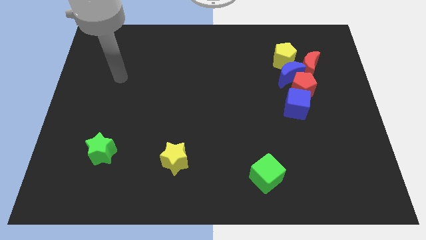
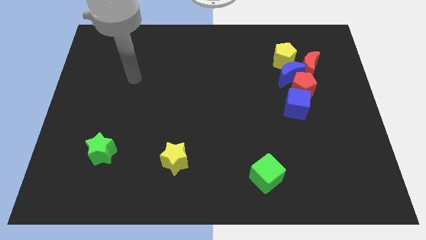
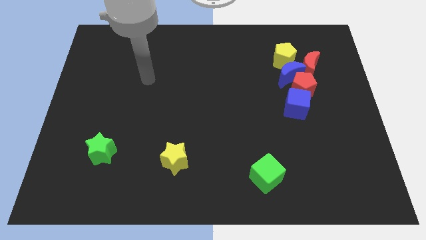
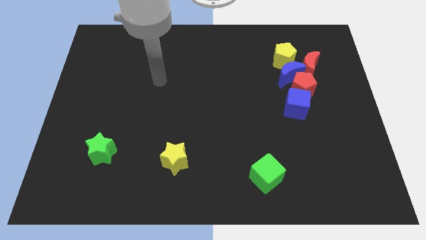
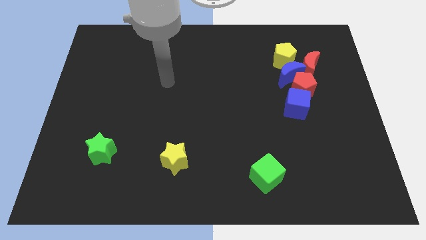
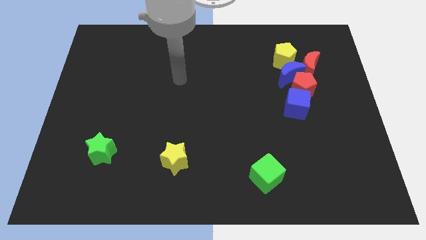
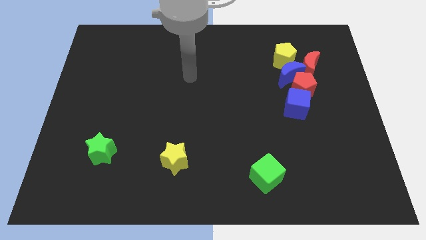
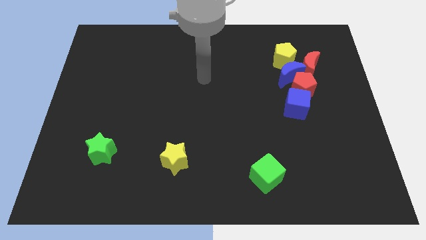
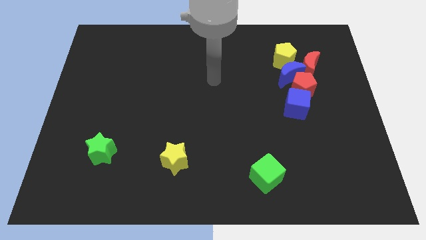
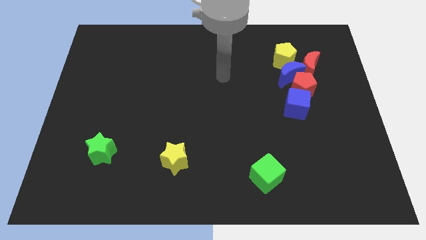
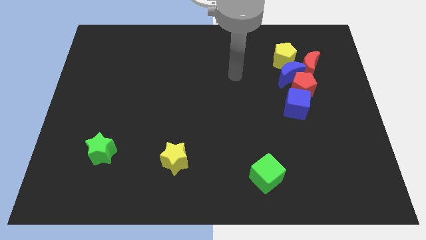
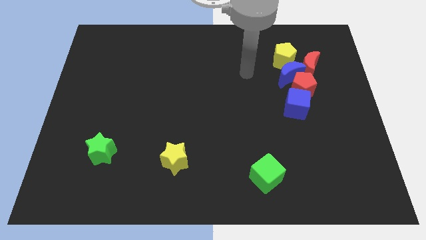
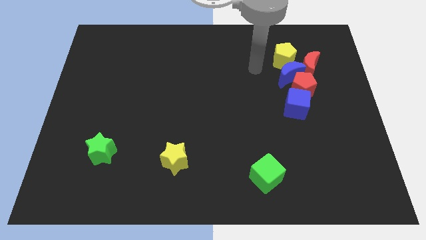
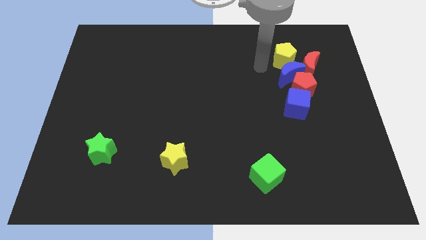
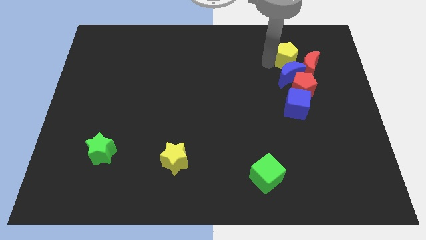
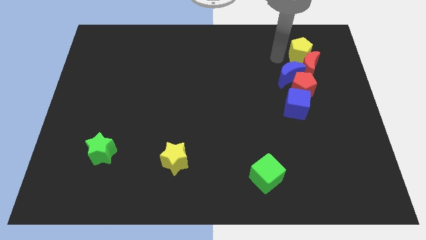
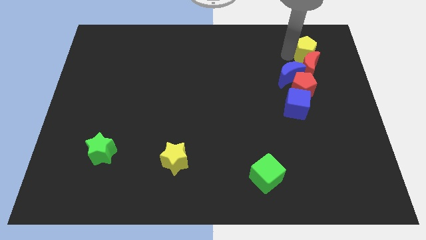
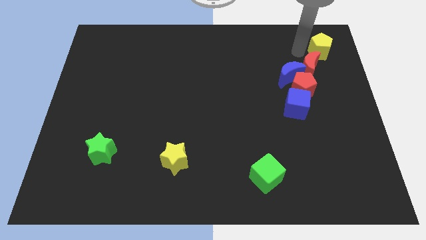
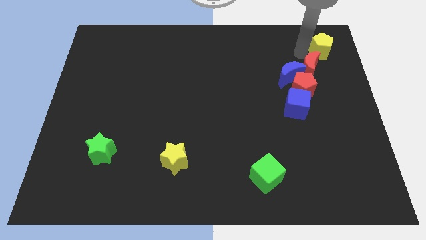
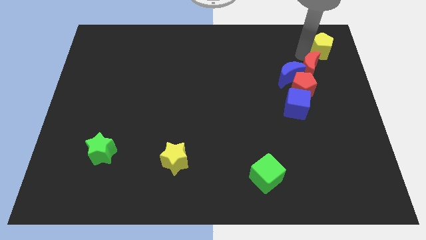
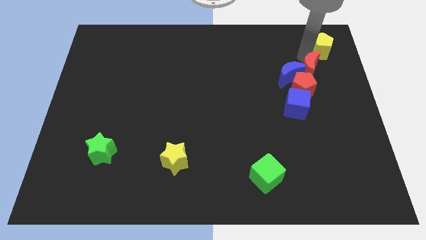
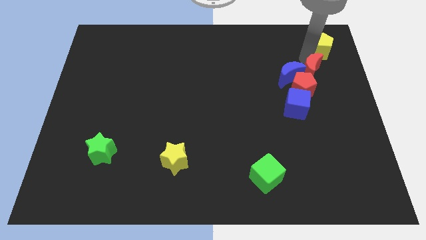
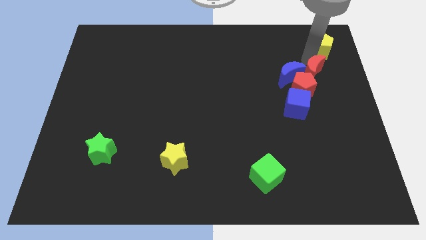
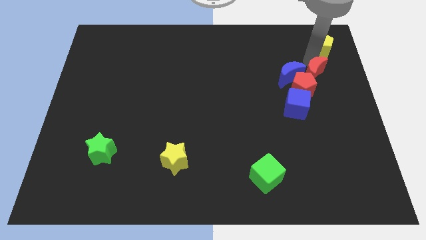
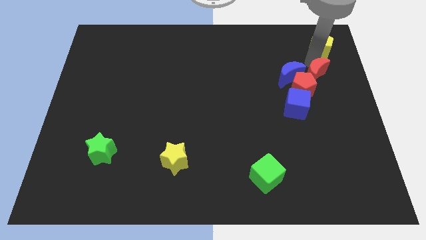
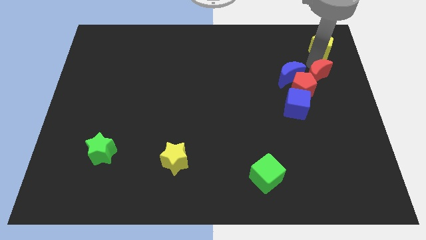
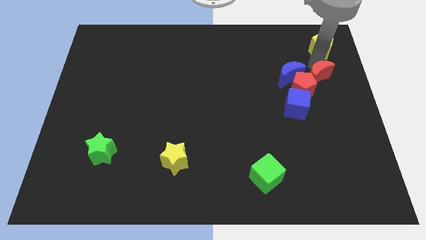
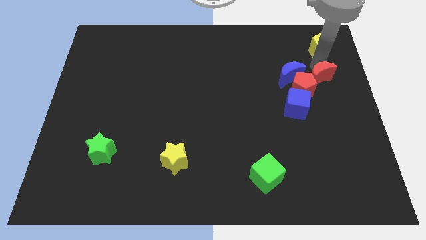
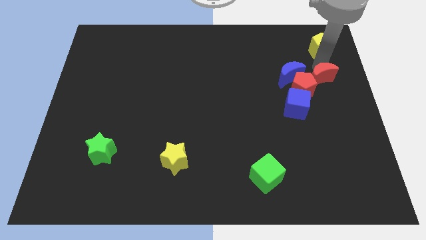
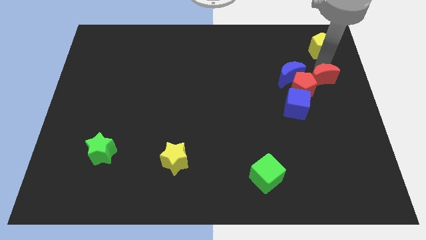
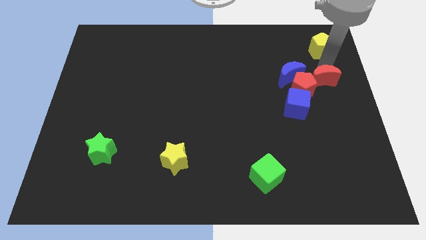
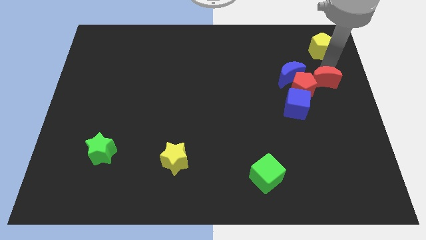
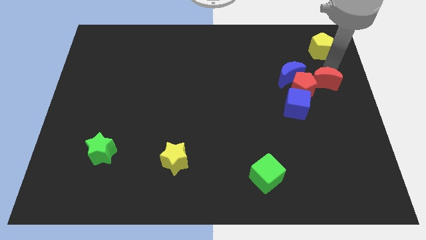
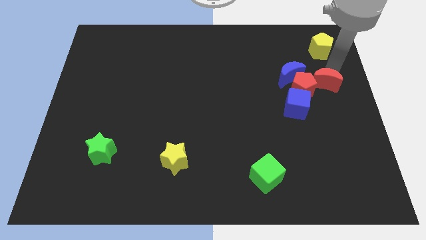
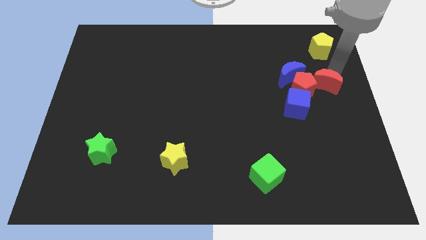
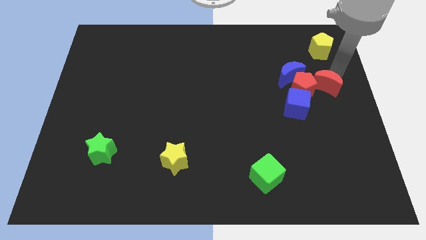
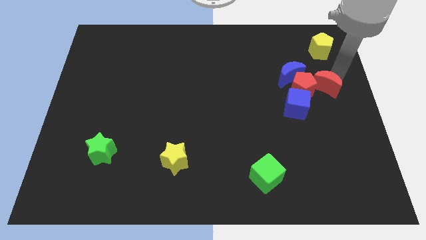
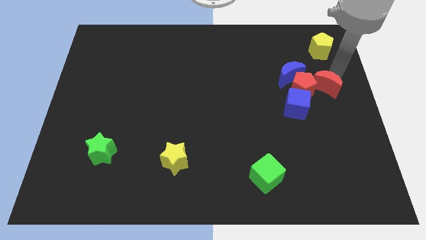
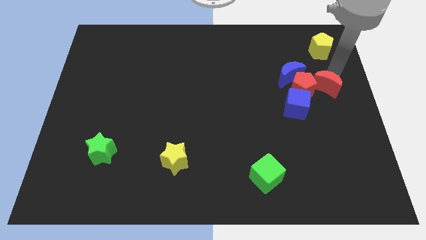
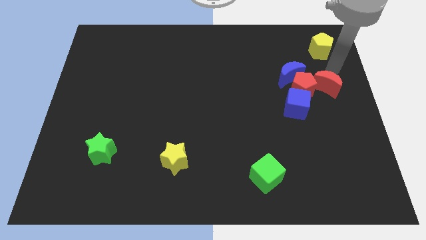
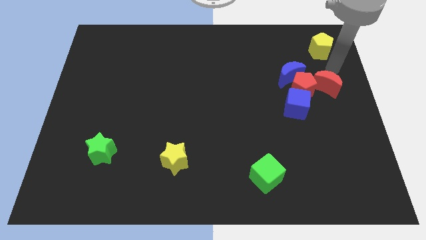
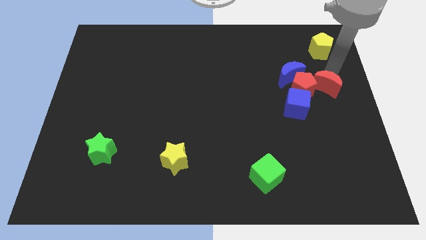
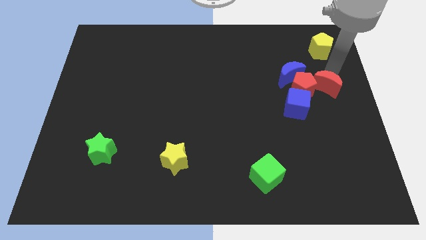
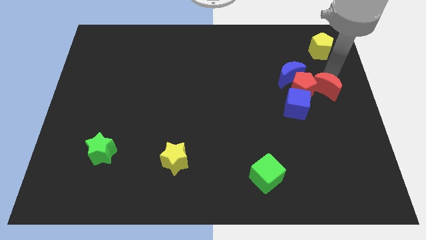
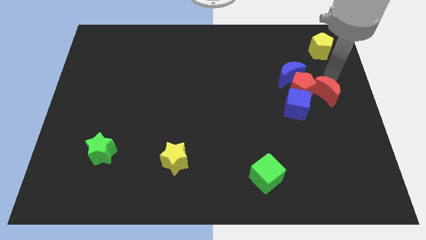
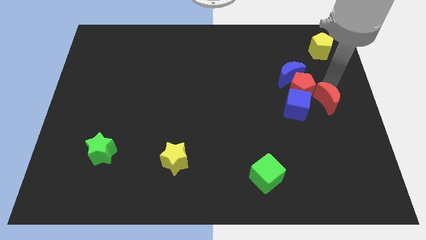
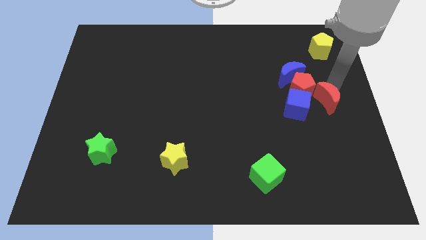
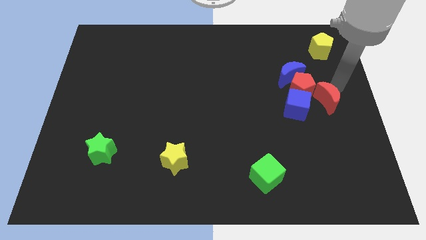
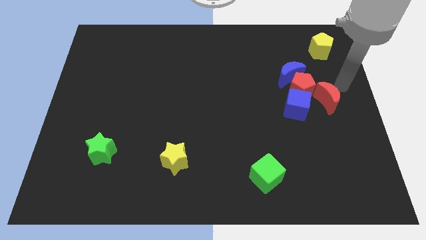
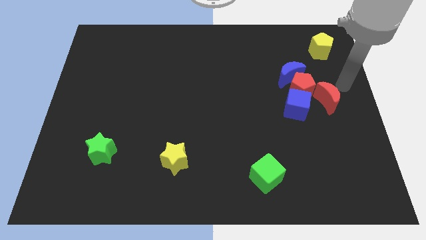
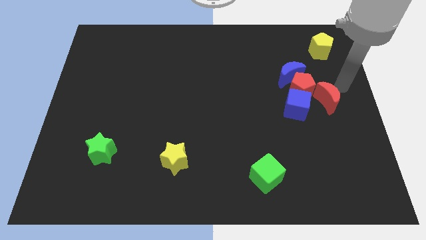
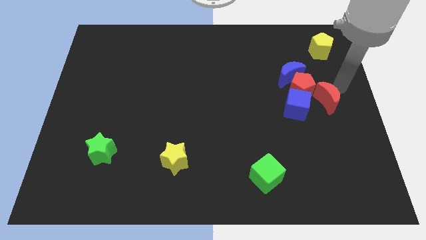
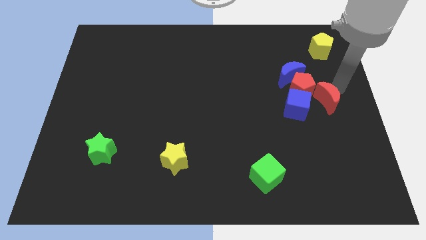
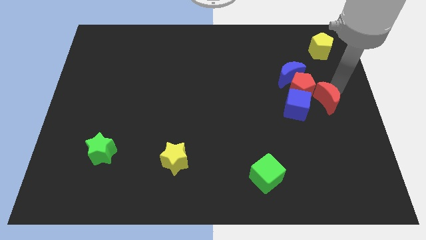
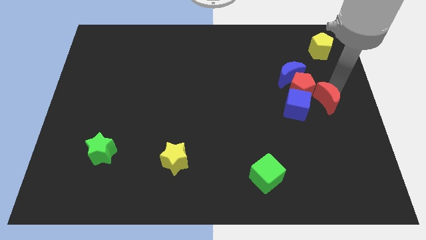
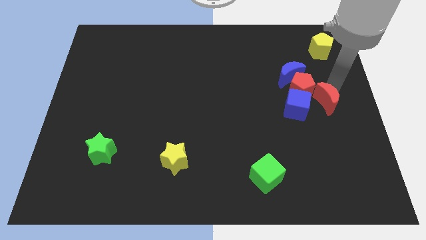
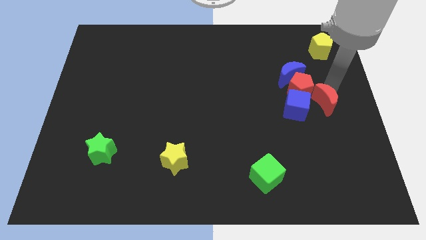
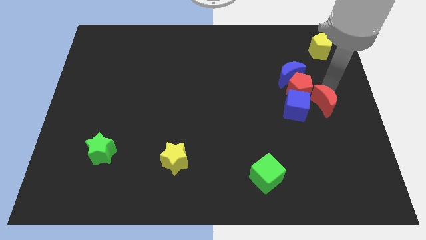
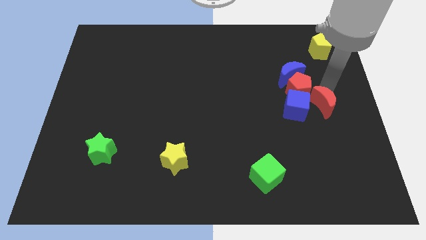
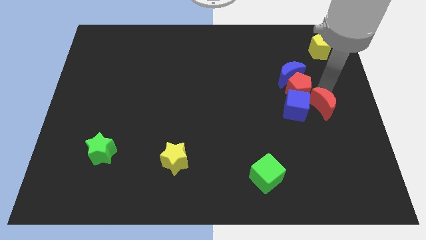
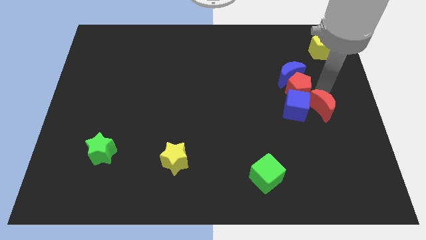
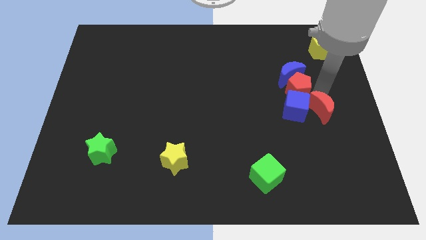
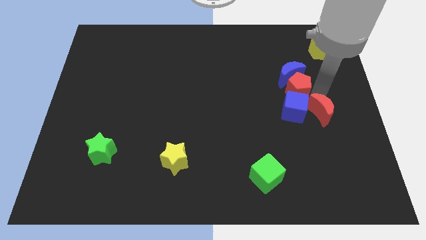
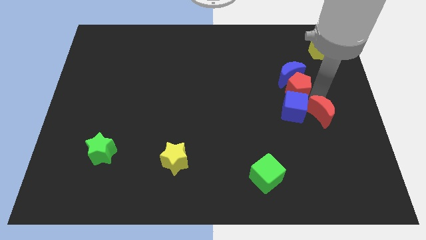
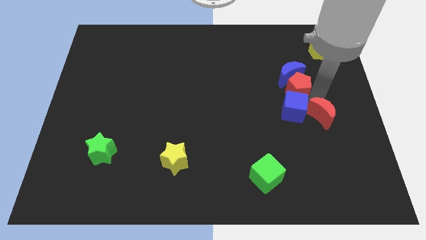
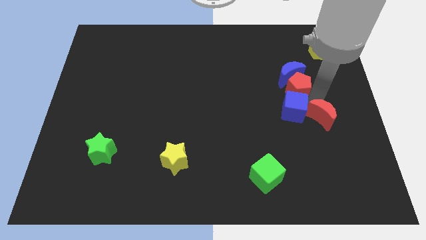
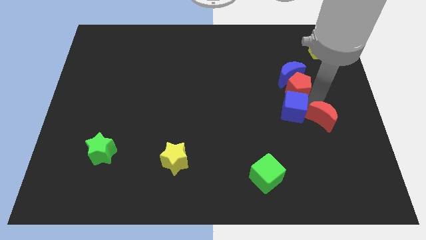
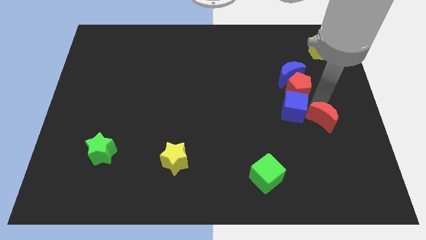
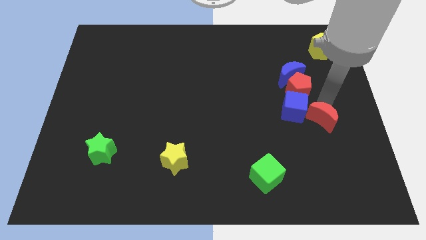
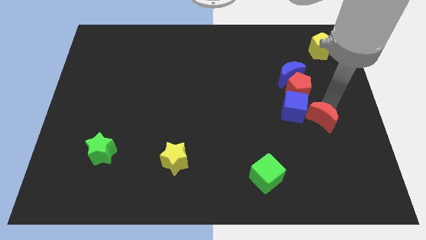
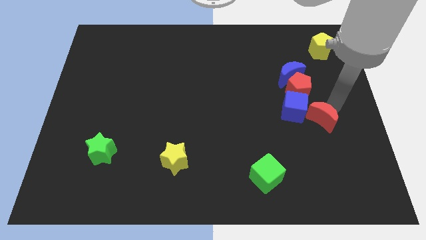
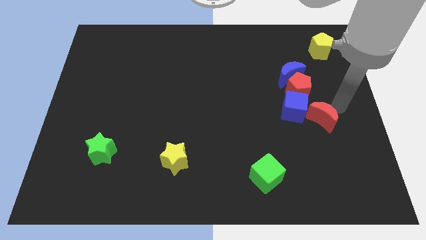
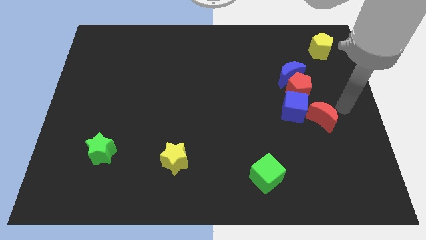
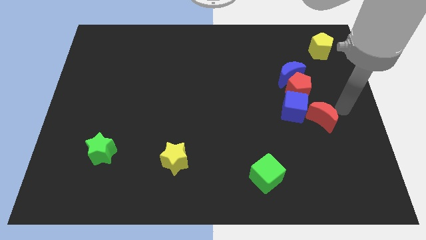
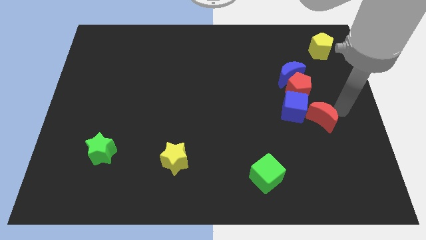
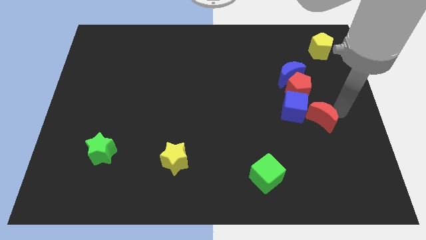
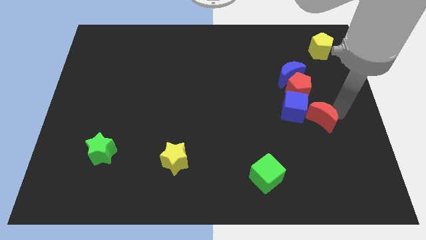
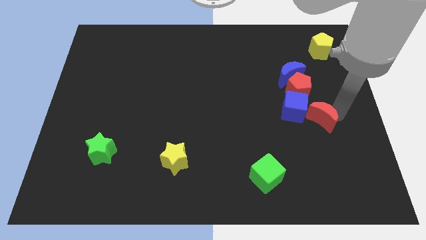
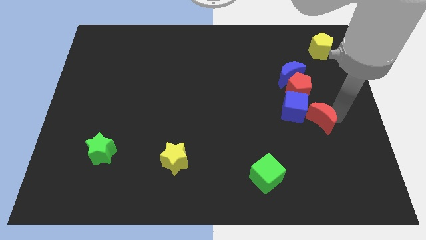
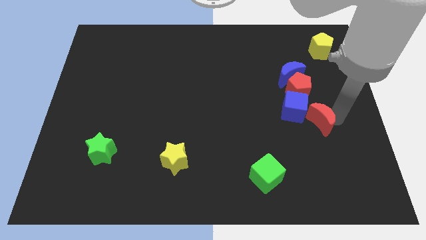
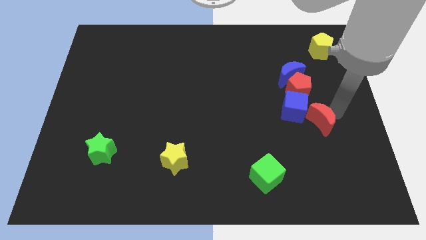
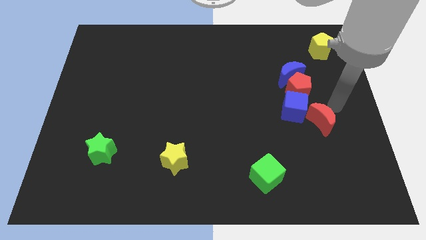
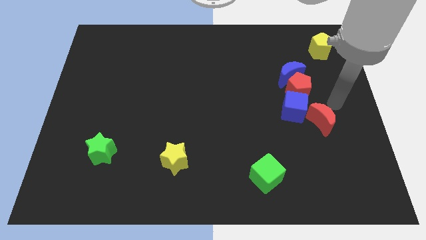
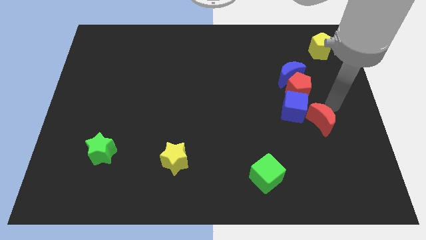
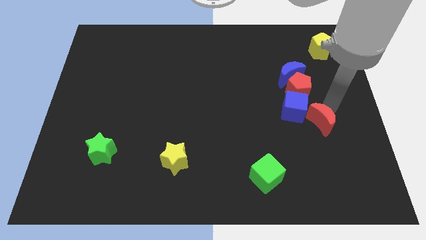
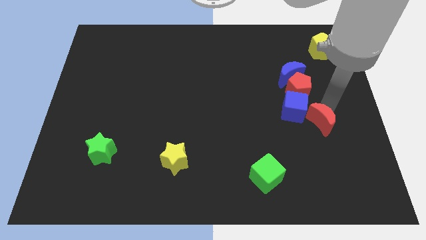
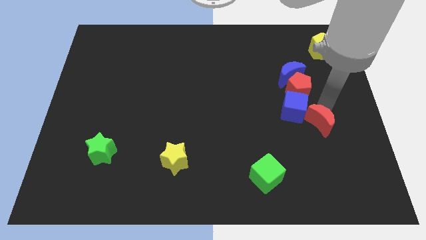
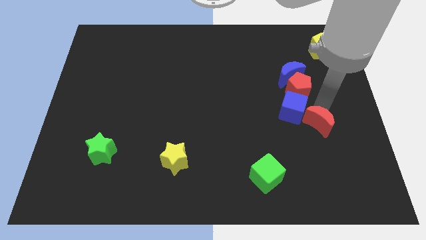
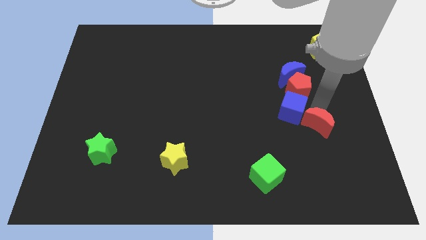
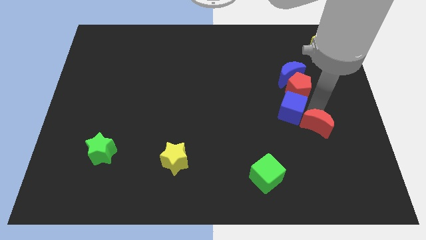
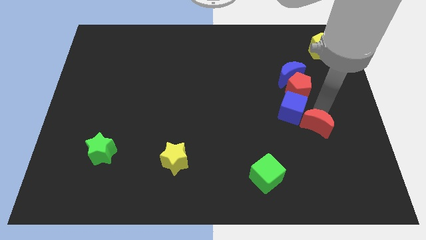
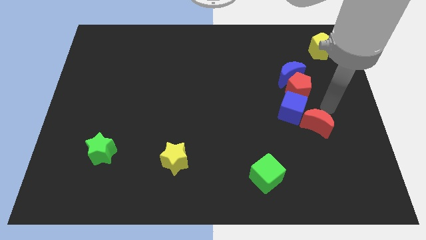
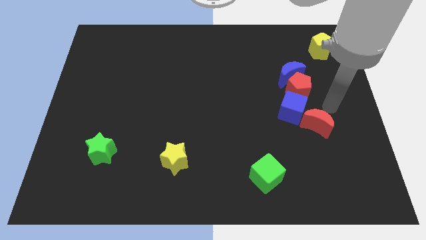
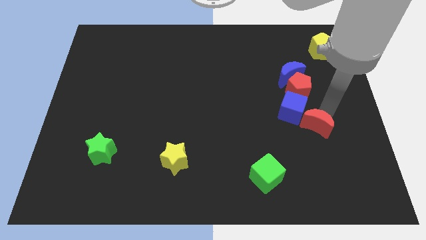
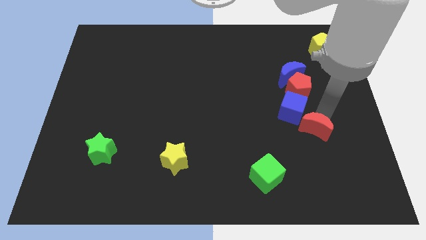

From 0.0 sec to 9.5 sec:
move the red moon to the bottom of the blue cube
